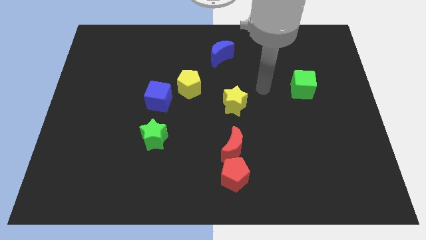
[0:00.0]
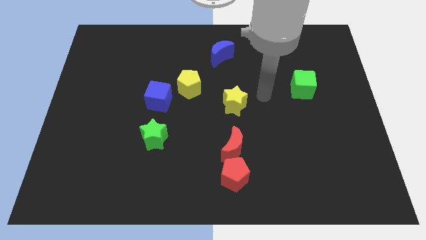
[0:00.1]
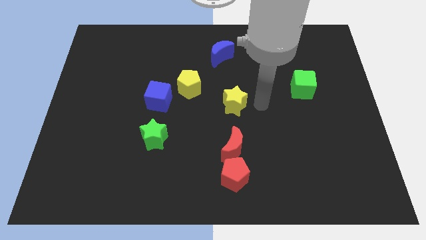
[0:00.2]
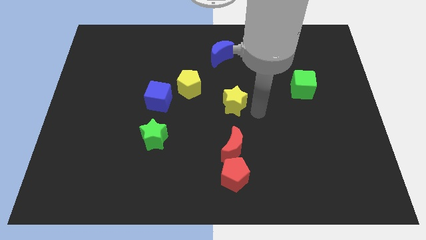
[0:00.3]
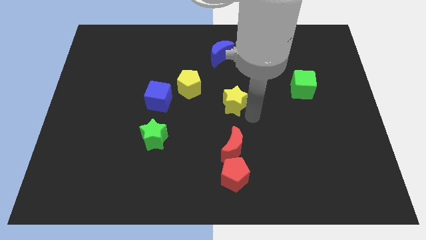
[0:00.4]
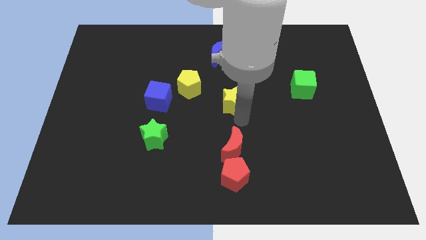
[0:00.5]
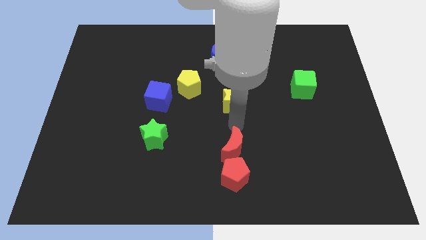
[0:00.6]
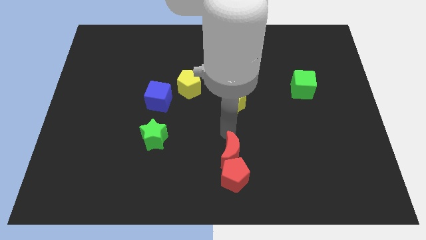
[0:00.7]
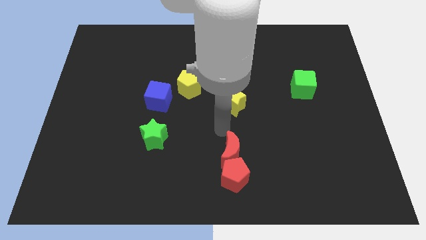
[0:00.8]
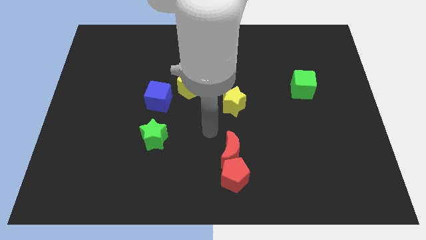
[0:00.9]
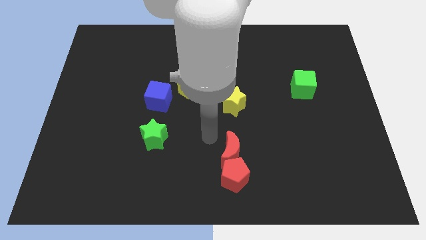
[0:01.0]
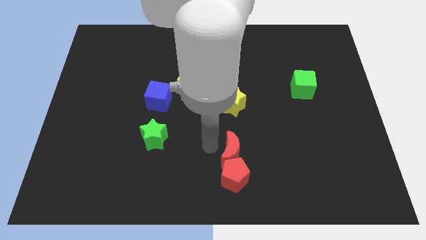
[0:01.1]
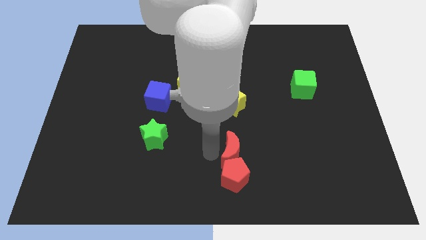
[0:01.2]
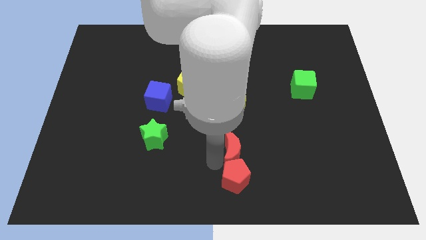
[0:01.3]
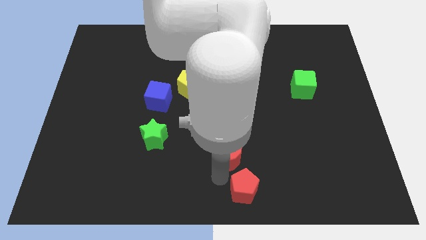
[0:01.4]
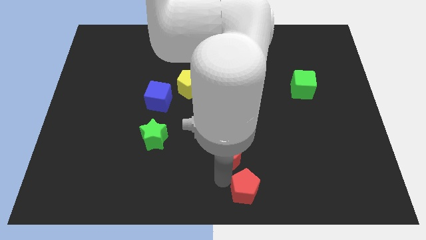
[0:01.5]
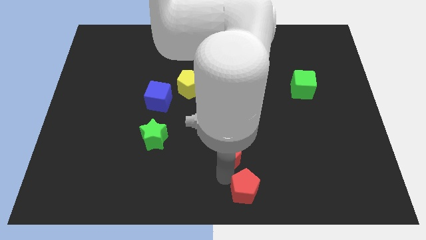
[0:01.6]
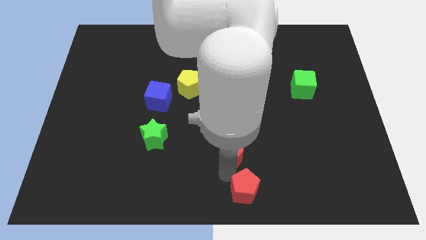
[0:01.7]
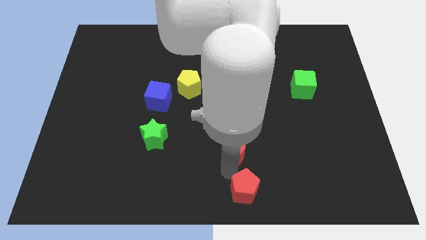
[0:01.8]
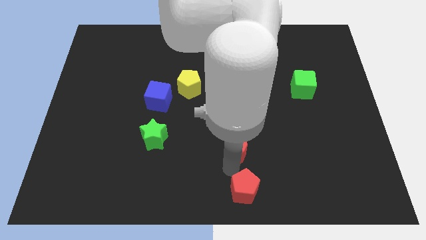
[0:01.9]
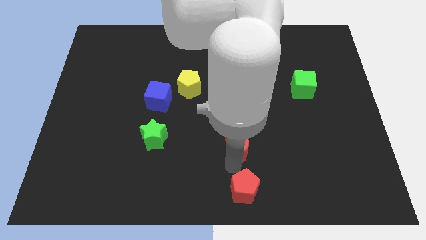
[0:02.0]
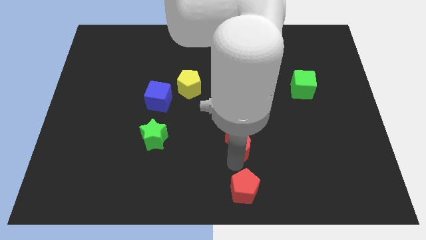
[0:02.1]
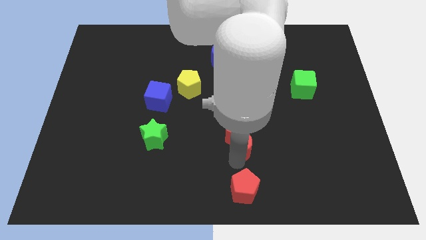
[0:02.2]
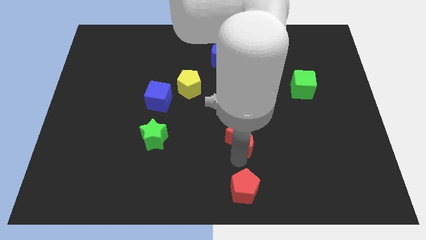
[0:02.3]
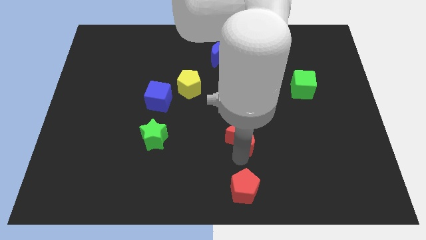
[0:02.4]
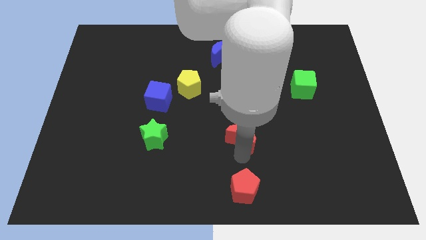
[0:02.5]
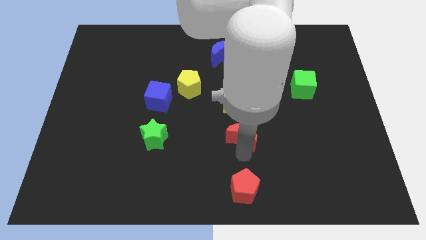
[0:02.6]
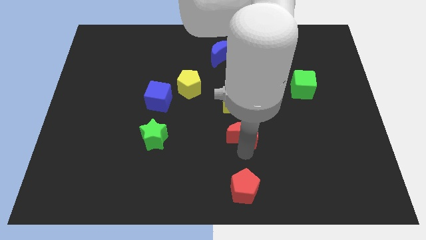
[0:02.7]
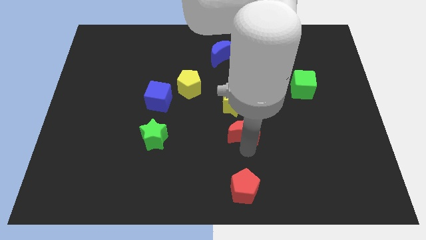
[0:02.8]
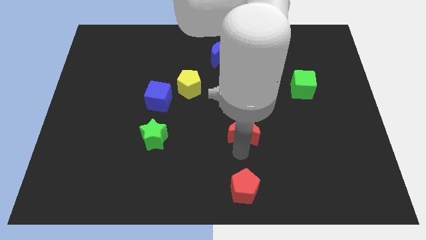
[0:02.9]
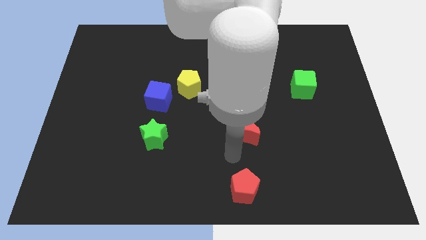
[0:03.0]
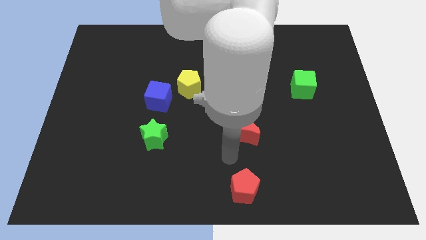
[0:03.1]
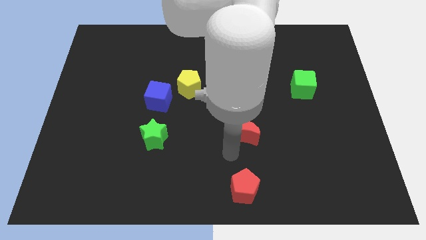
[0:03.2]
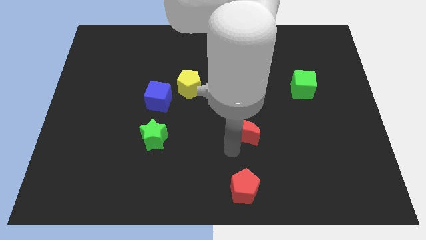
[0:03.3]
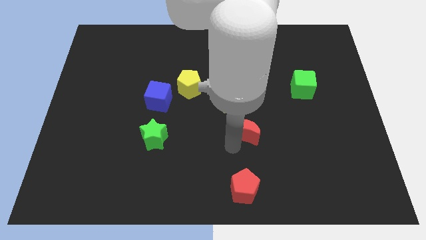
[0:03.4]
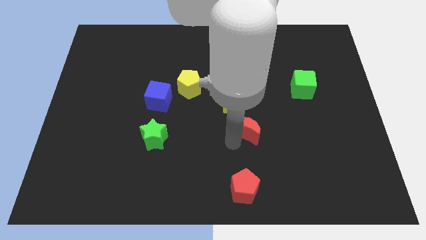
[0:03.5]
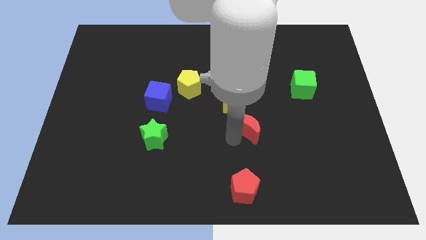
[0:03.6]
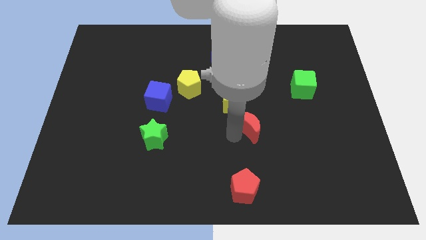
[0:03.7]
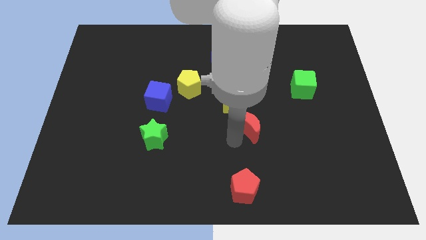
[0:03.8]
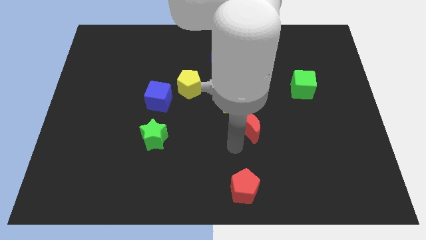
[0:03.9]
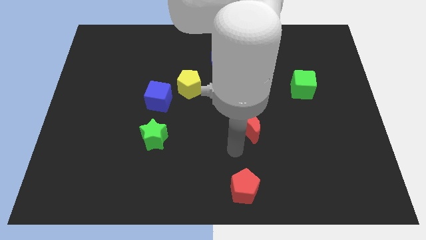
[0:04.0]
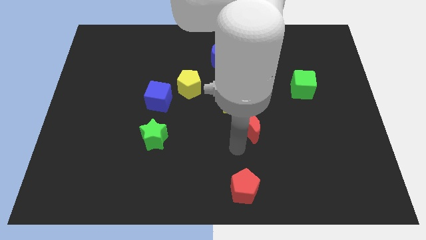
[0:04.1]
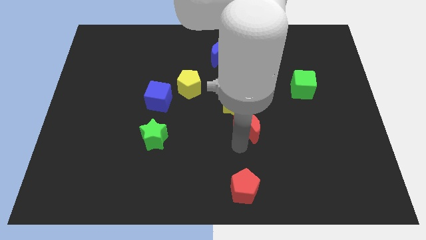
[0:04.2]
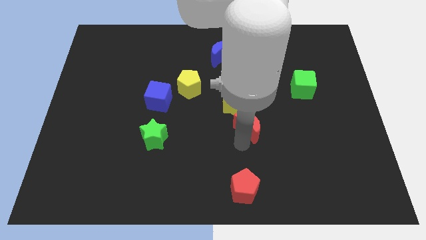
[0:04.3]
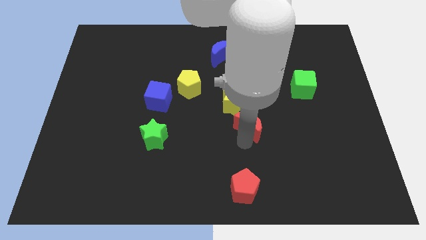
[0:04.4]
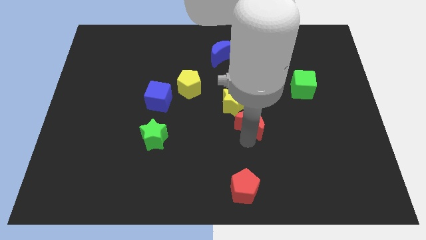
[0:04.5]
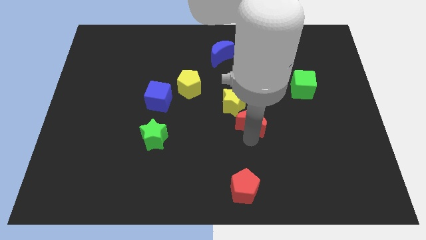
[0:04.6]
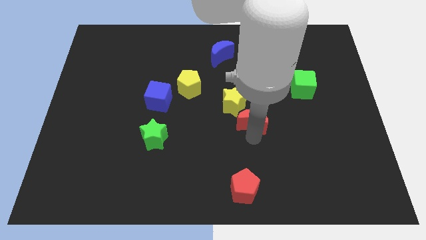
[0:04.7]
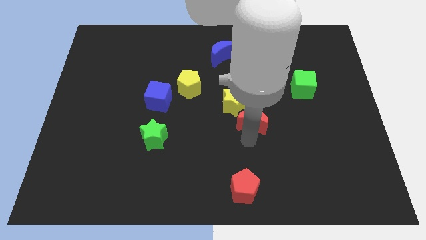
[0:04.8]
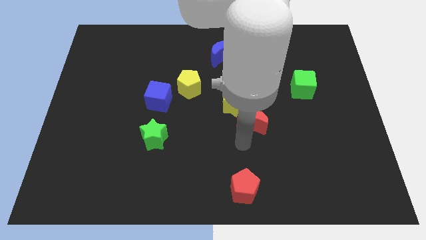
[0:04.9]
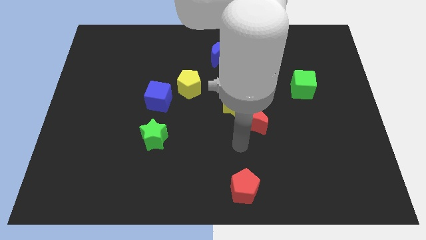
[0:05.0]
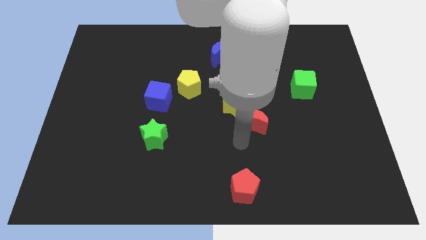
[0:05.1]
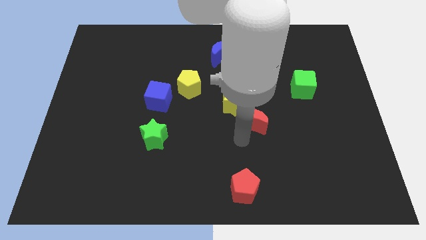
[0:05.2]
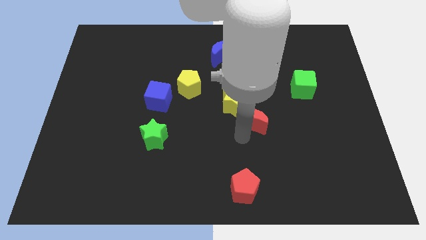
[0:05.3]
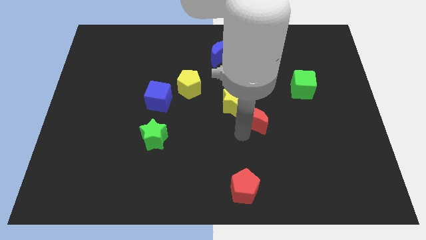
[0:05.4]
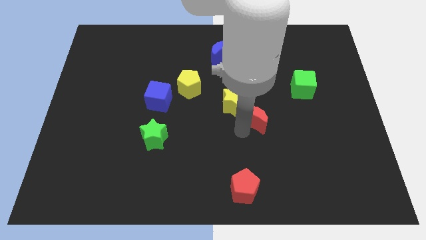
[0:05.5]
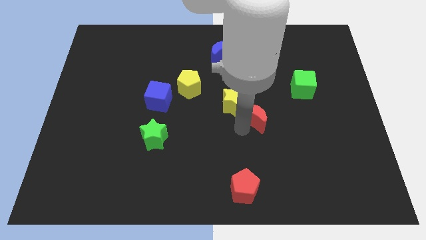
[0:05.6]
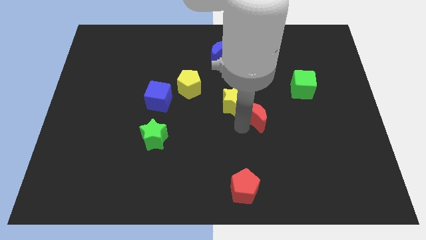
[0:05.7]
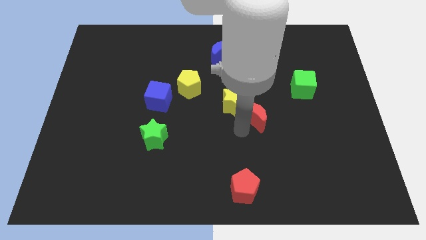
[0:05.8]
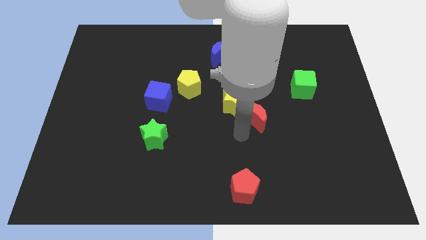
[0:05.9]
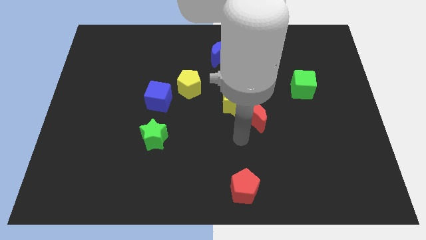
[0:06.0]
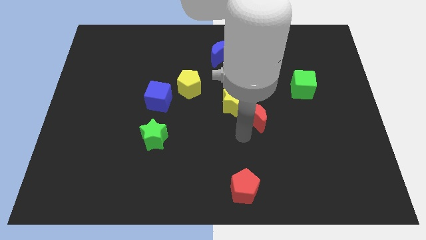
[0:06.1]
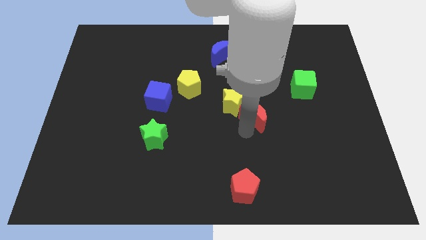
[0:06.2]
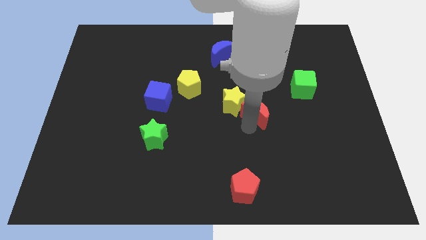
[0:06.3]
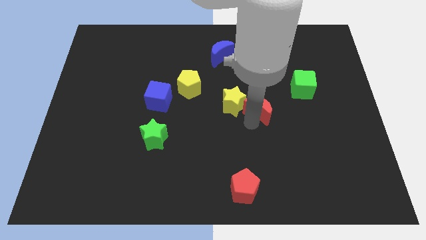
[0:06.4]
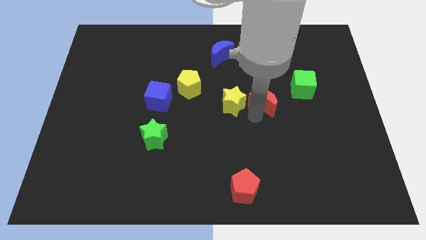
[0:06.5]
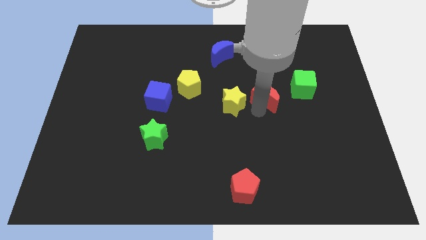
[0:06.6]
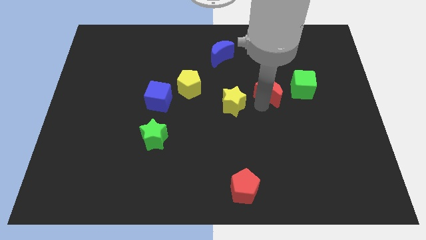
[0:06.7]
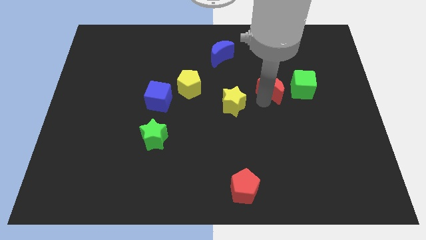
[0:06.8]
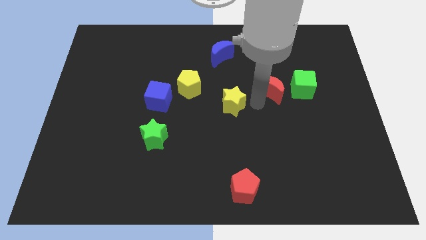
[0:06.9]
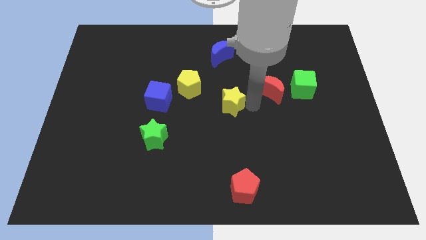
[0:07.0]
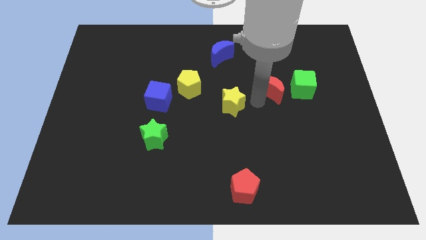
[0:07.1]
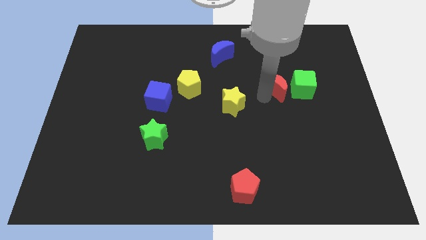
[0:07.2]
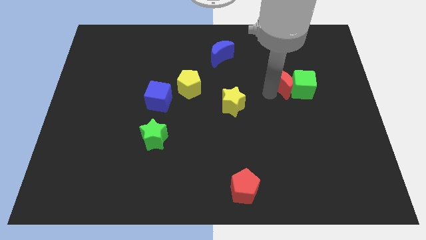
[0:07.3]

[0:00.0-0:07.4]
push the red moon up and right diagonally

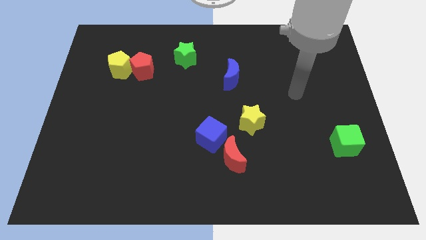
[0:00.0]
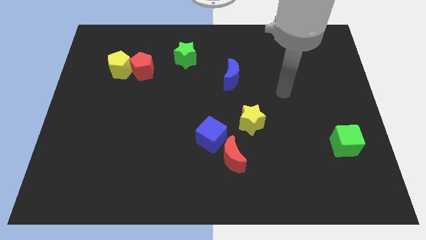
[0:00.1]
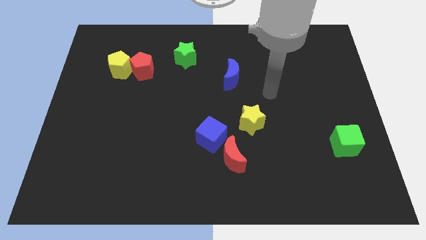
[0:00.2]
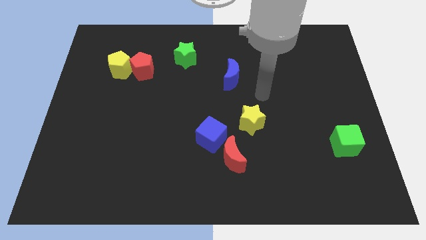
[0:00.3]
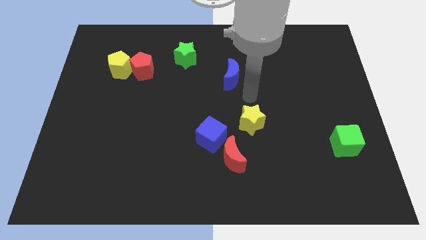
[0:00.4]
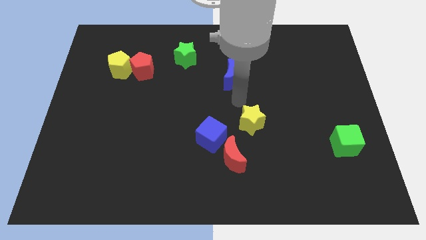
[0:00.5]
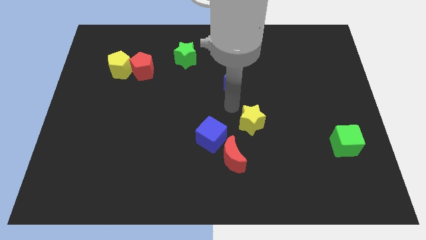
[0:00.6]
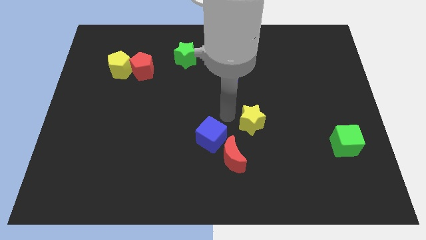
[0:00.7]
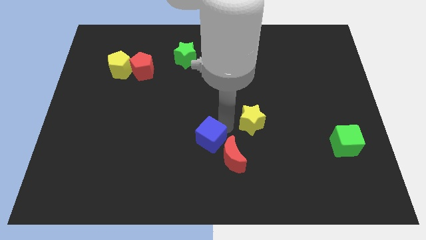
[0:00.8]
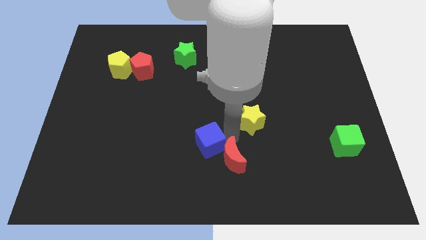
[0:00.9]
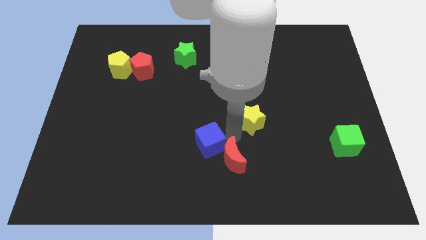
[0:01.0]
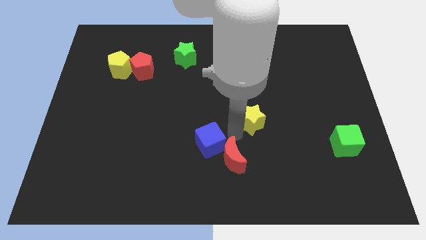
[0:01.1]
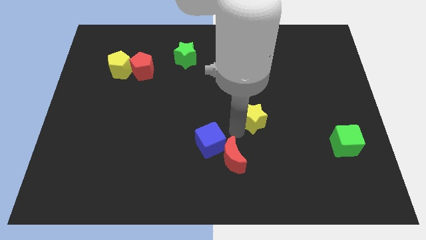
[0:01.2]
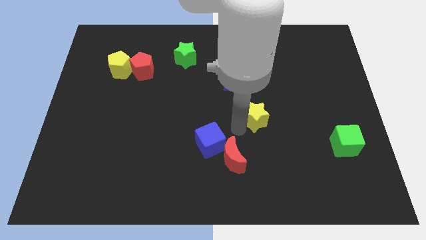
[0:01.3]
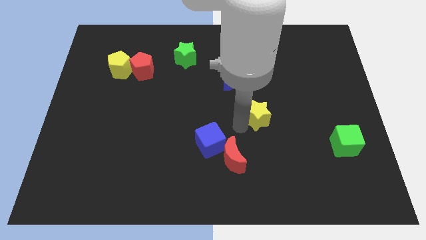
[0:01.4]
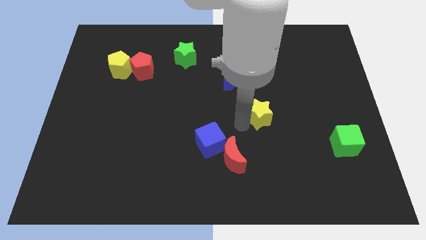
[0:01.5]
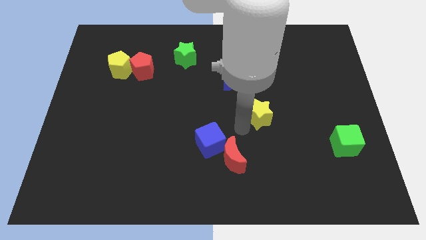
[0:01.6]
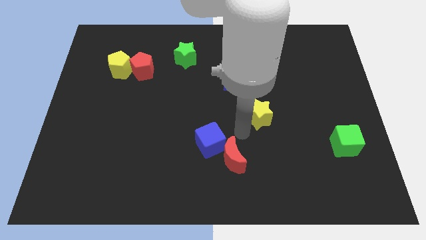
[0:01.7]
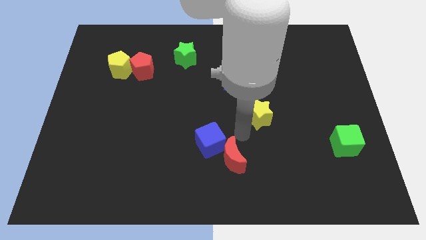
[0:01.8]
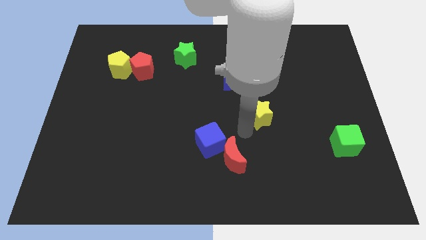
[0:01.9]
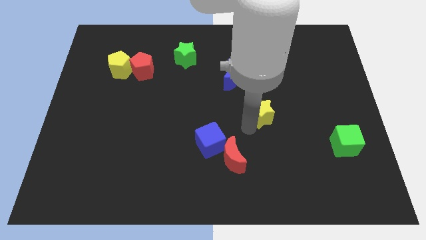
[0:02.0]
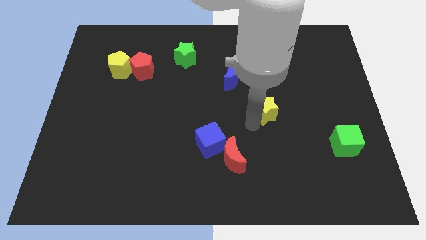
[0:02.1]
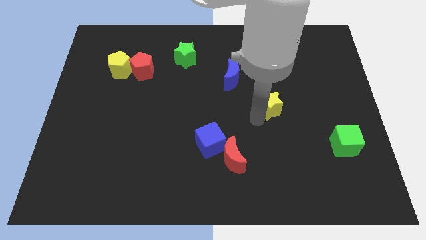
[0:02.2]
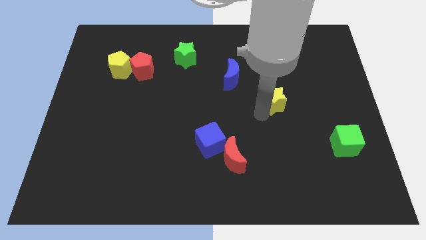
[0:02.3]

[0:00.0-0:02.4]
slightly move the yellow star upwards and to the right diagonally
